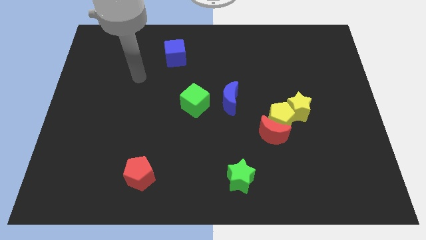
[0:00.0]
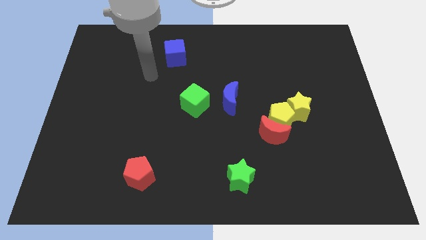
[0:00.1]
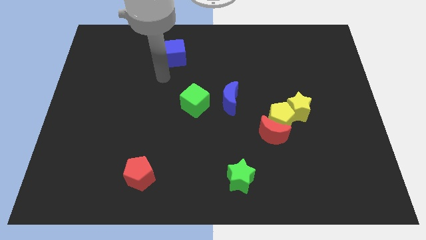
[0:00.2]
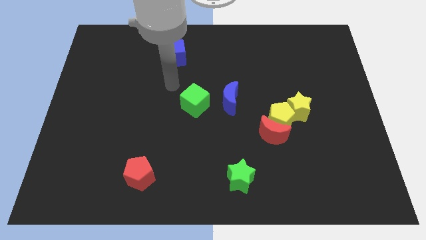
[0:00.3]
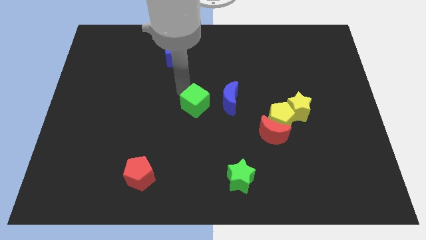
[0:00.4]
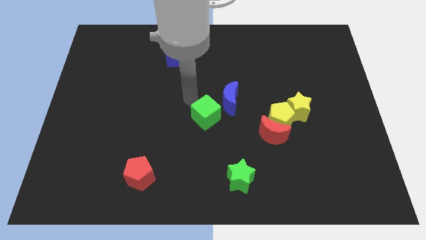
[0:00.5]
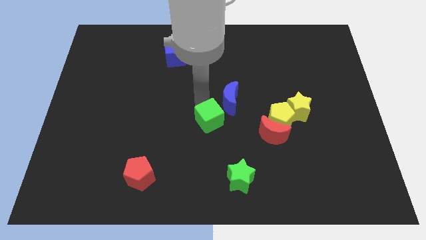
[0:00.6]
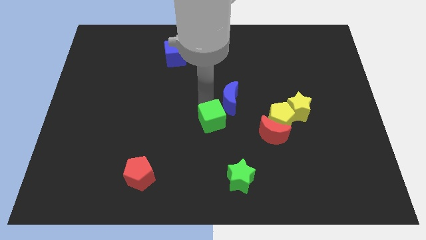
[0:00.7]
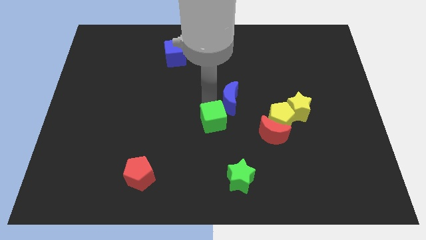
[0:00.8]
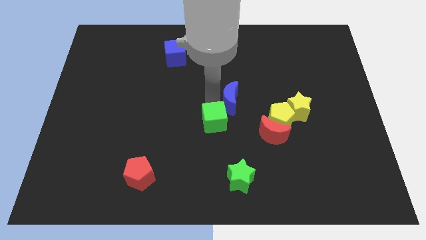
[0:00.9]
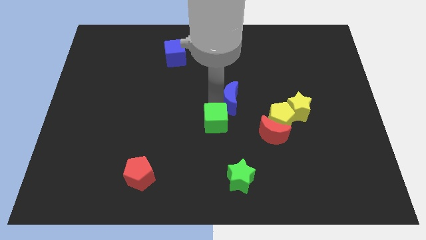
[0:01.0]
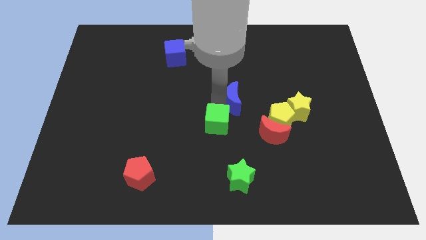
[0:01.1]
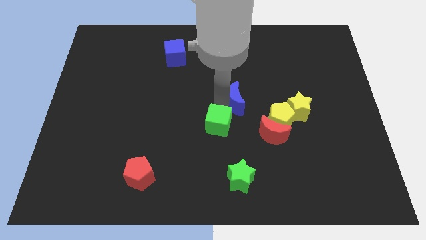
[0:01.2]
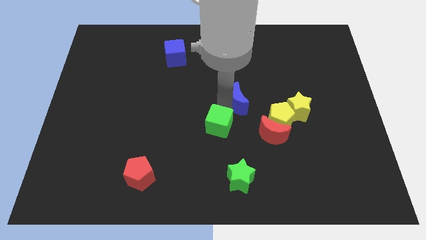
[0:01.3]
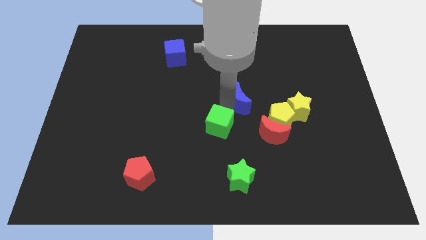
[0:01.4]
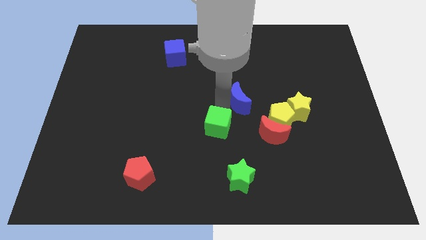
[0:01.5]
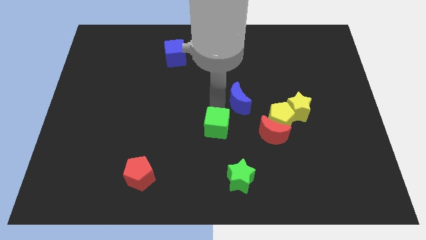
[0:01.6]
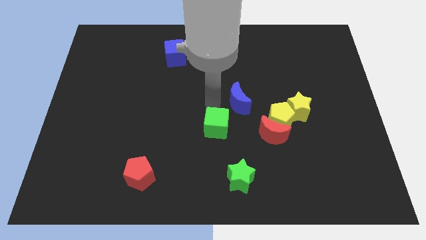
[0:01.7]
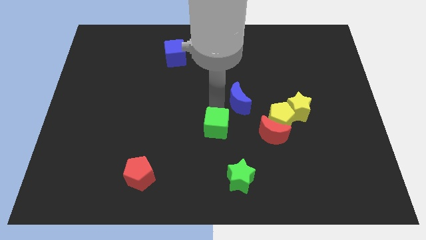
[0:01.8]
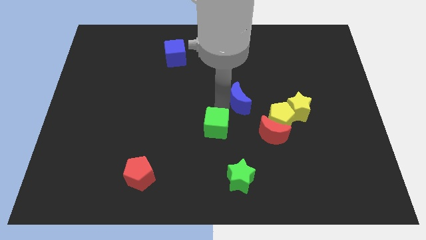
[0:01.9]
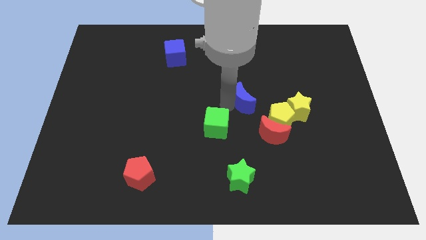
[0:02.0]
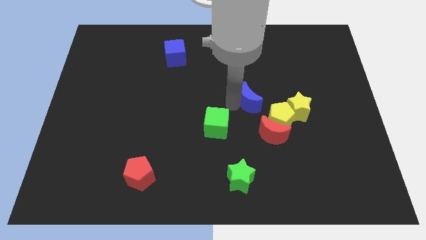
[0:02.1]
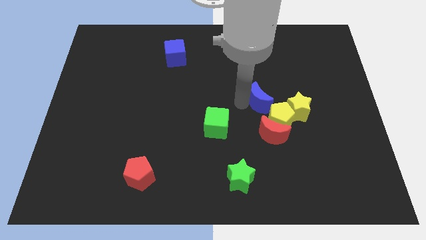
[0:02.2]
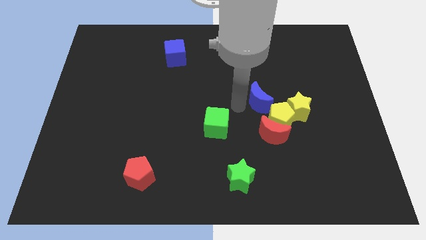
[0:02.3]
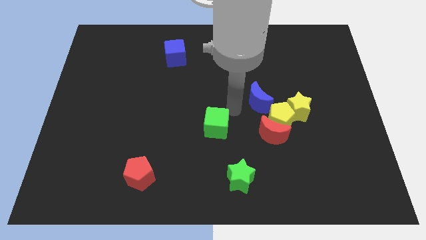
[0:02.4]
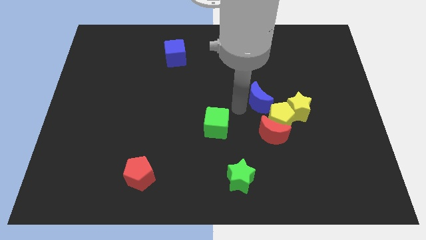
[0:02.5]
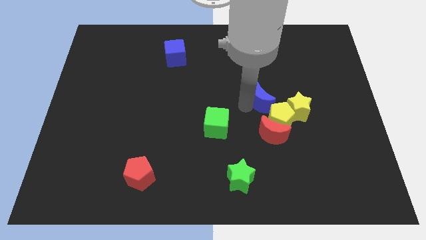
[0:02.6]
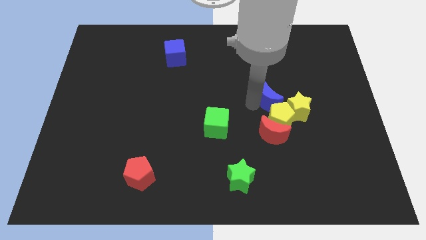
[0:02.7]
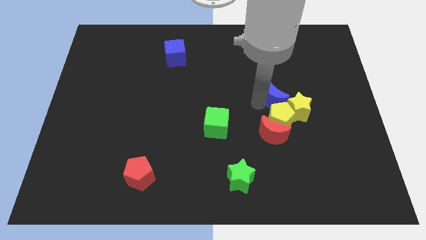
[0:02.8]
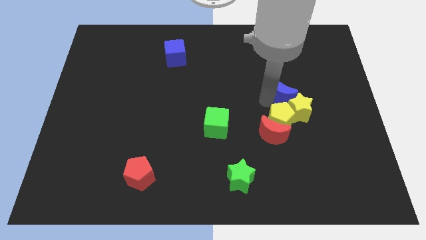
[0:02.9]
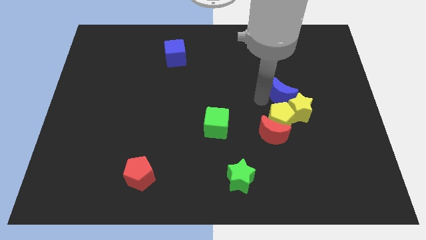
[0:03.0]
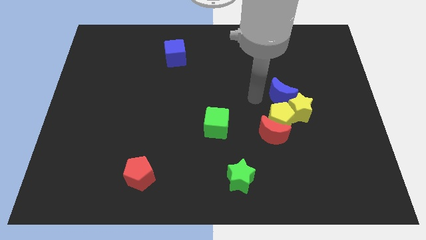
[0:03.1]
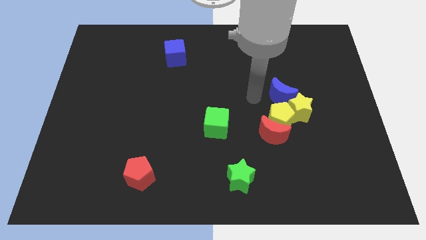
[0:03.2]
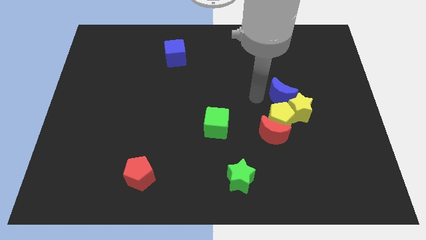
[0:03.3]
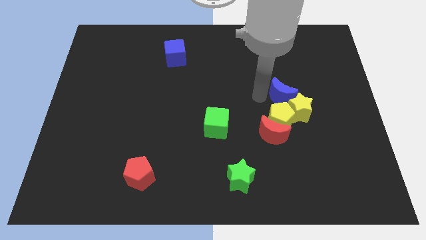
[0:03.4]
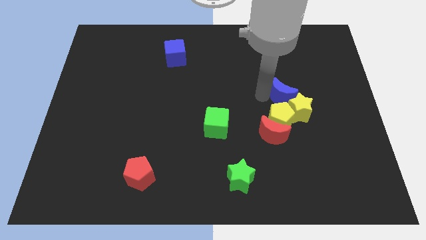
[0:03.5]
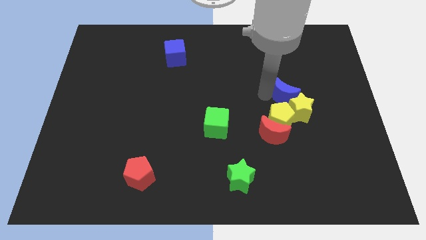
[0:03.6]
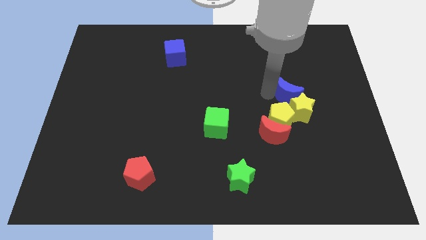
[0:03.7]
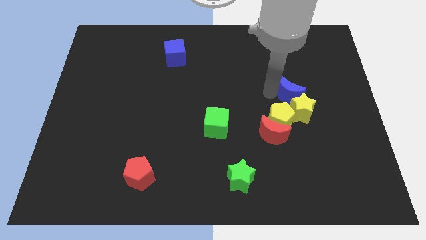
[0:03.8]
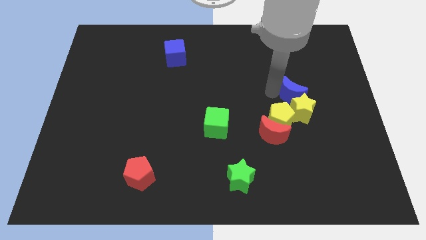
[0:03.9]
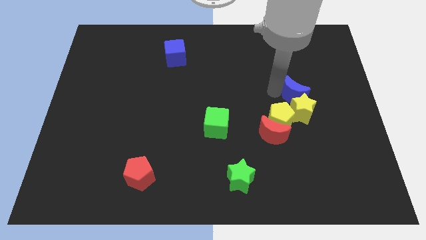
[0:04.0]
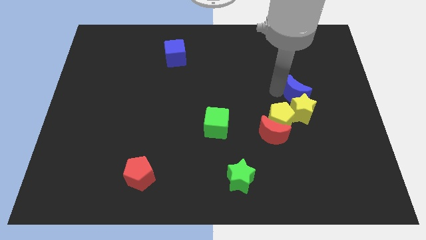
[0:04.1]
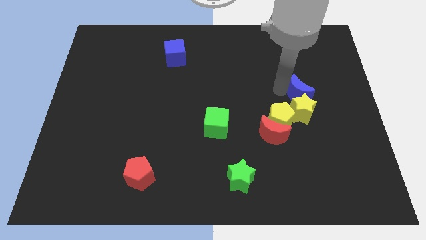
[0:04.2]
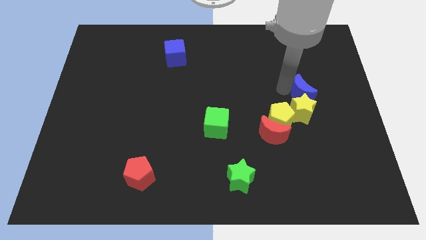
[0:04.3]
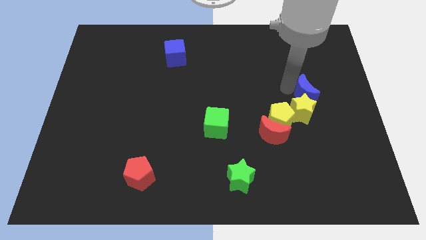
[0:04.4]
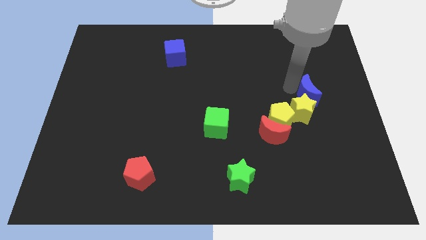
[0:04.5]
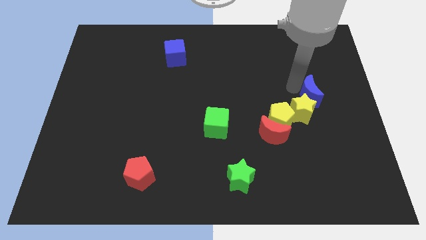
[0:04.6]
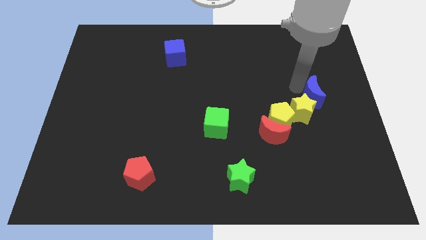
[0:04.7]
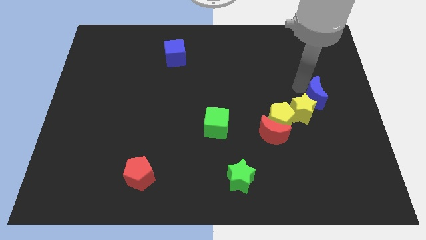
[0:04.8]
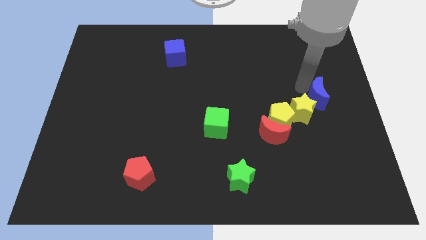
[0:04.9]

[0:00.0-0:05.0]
put the blue moon to the right side

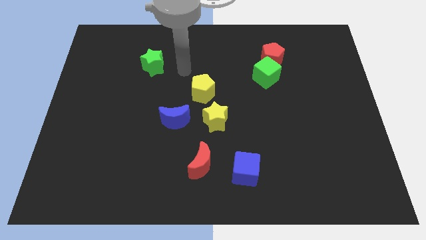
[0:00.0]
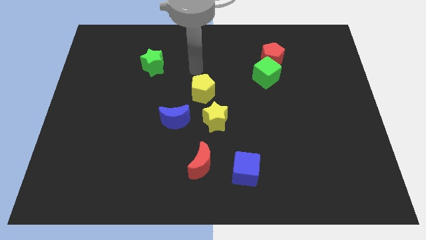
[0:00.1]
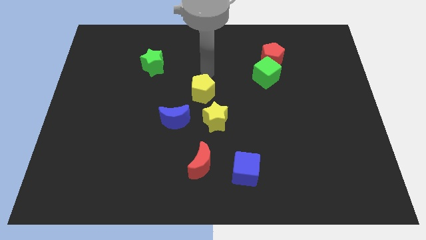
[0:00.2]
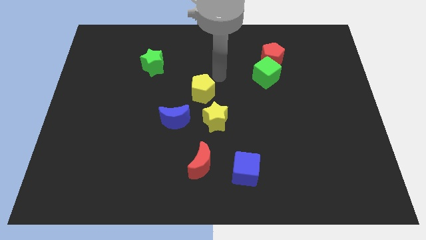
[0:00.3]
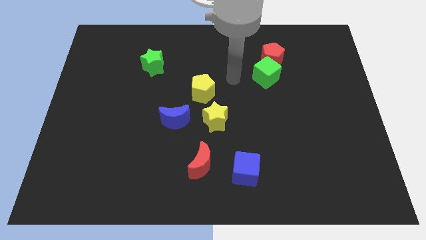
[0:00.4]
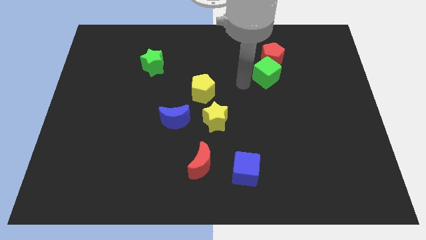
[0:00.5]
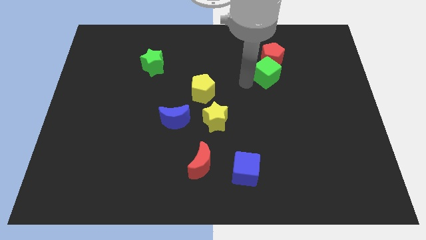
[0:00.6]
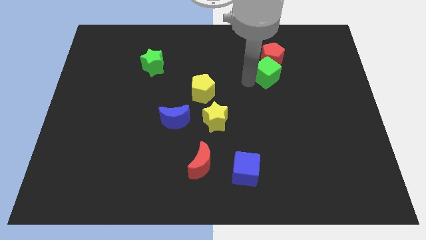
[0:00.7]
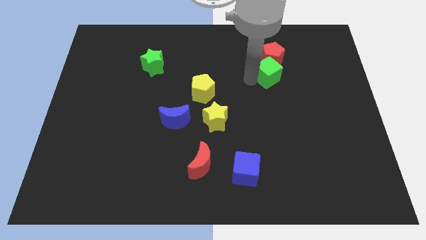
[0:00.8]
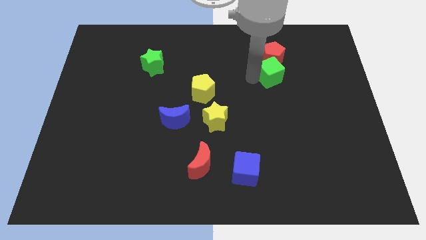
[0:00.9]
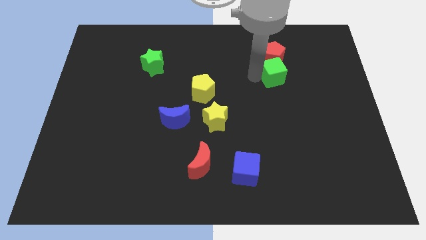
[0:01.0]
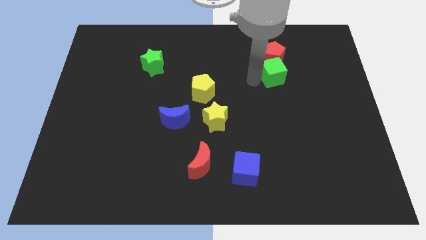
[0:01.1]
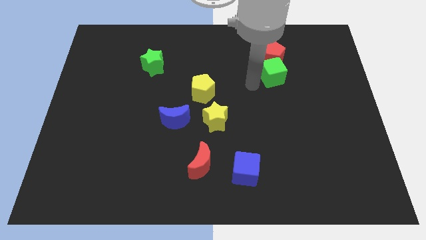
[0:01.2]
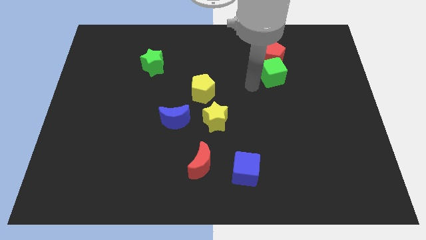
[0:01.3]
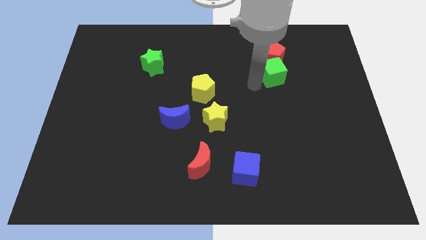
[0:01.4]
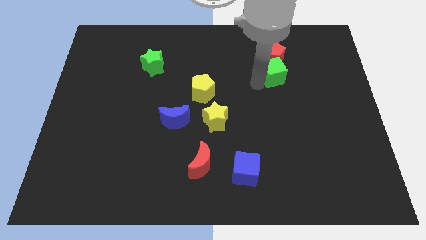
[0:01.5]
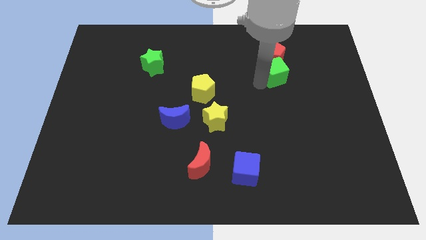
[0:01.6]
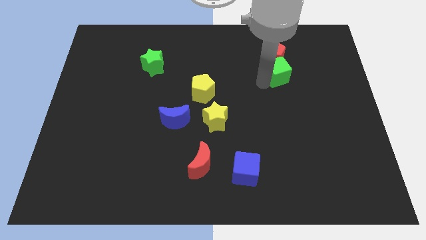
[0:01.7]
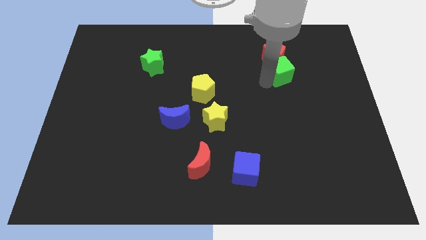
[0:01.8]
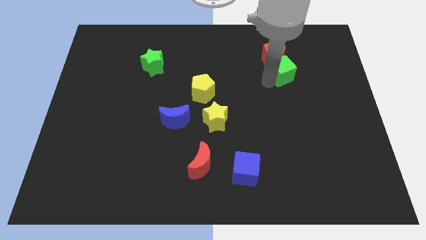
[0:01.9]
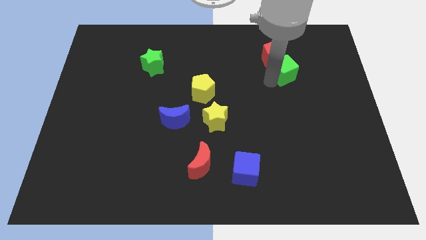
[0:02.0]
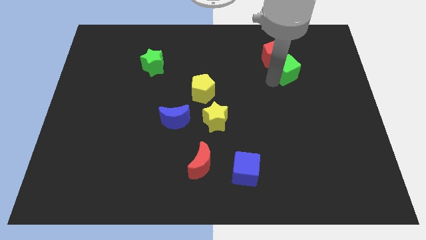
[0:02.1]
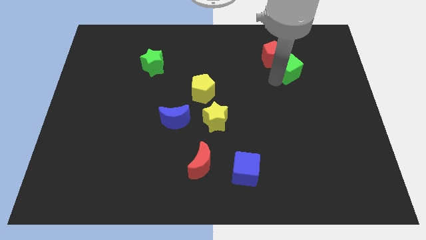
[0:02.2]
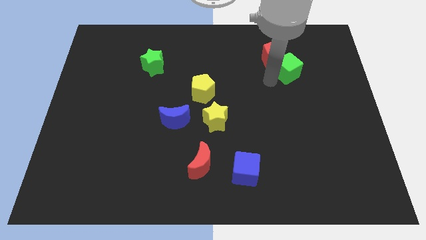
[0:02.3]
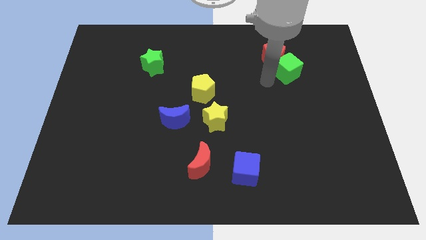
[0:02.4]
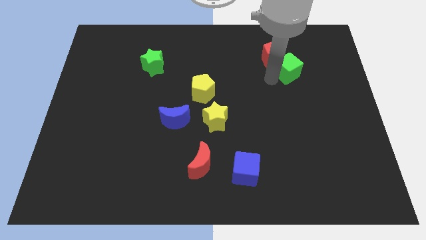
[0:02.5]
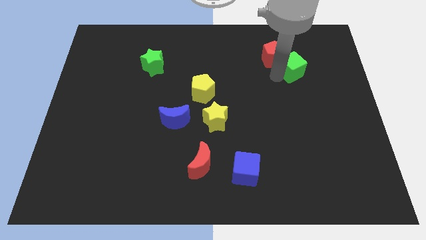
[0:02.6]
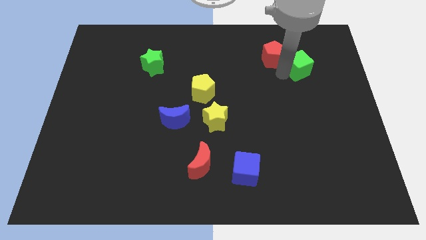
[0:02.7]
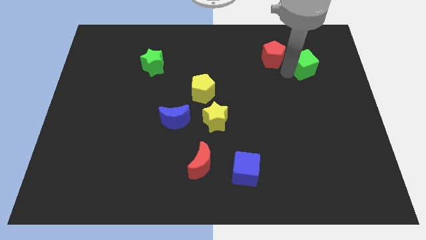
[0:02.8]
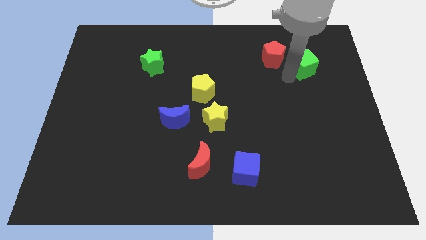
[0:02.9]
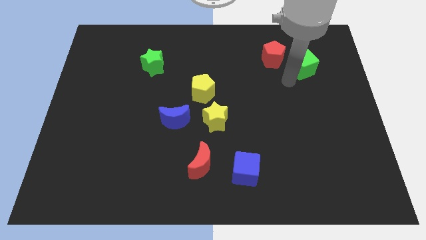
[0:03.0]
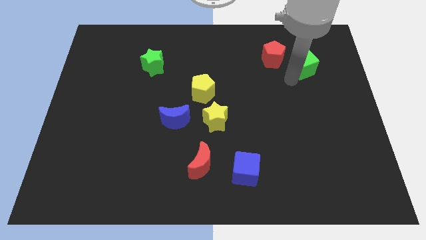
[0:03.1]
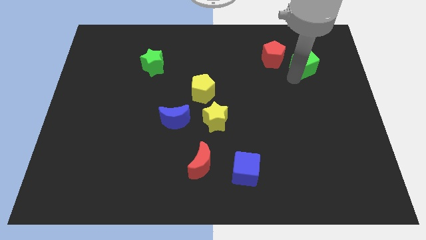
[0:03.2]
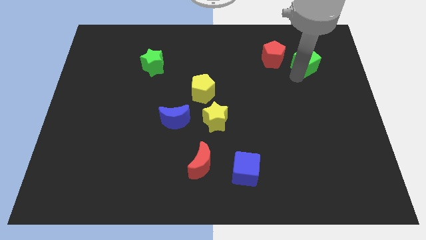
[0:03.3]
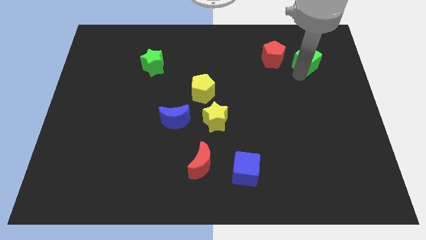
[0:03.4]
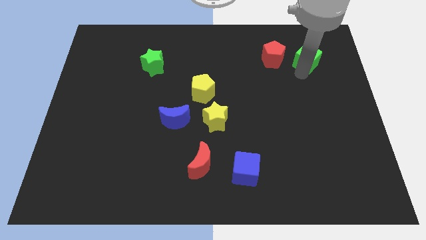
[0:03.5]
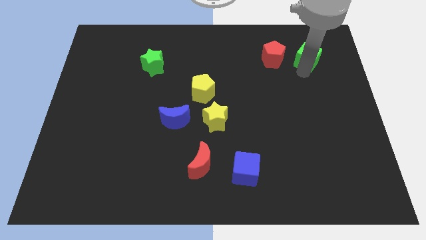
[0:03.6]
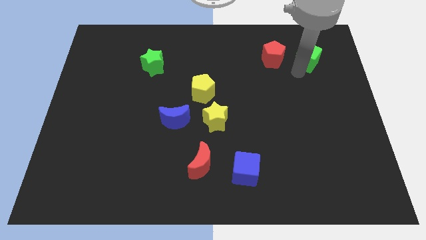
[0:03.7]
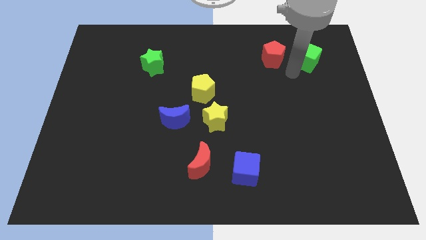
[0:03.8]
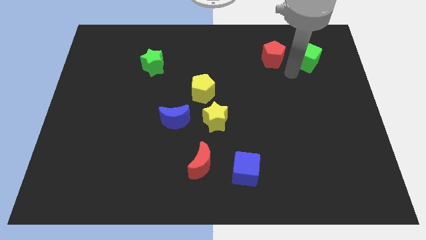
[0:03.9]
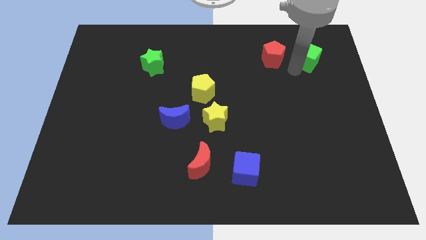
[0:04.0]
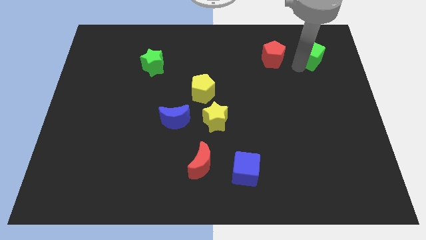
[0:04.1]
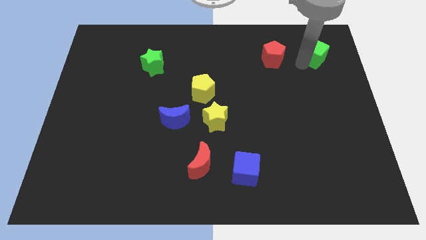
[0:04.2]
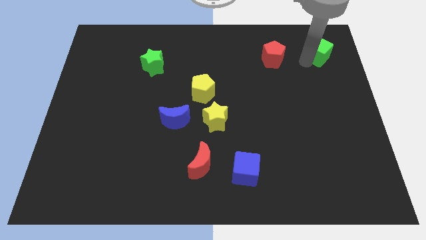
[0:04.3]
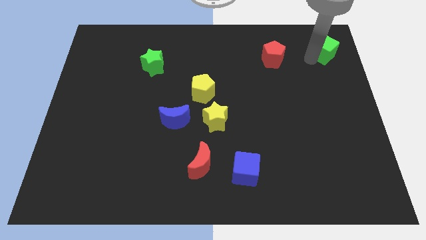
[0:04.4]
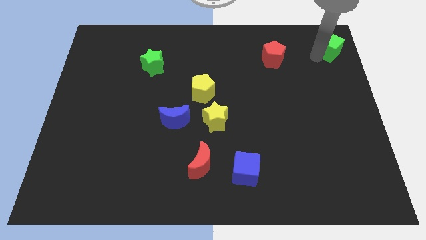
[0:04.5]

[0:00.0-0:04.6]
put the green cube to the top right
